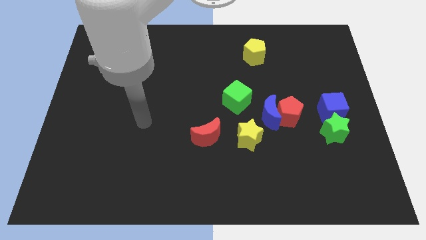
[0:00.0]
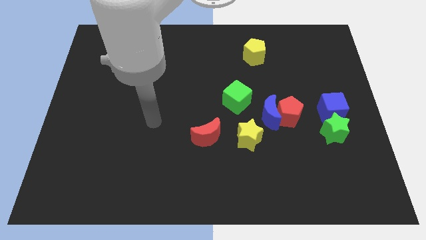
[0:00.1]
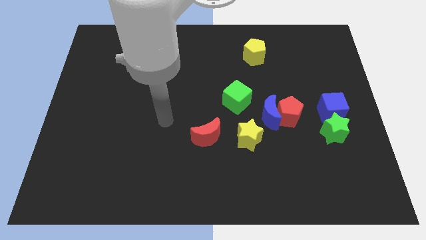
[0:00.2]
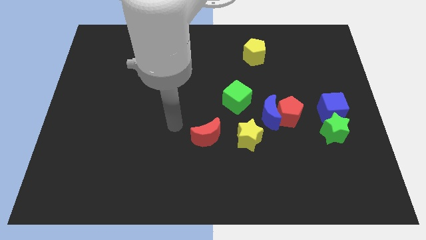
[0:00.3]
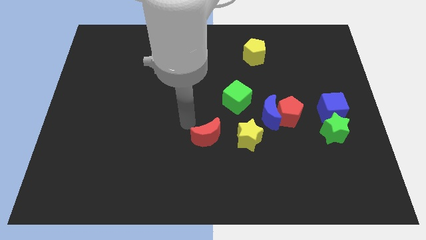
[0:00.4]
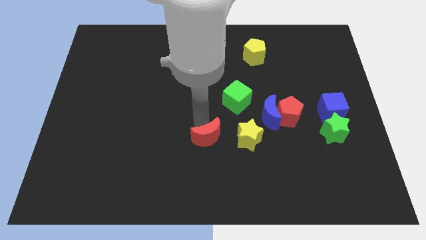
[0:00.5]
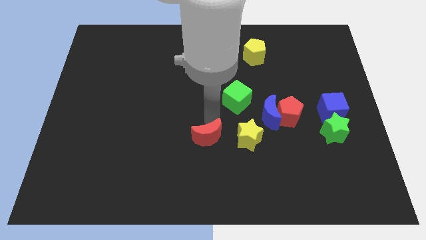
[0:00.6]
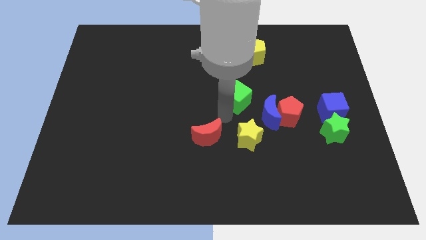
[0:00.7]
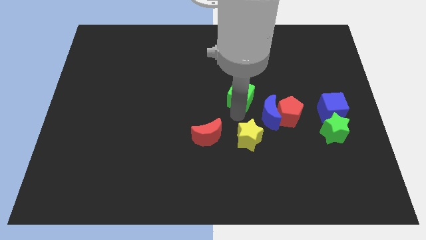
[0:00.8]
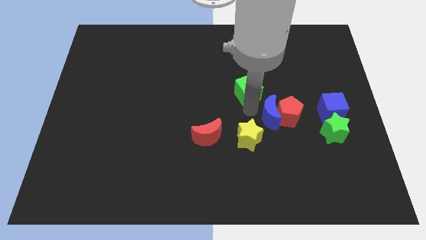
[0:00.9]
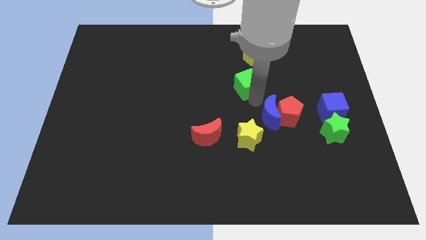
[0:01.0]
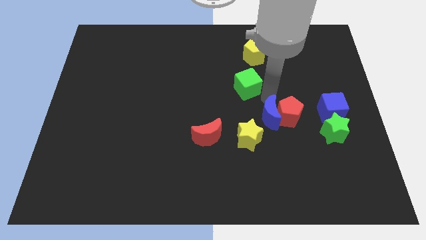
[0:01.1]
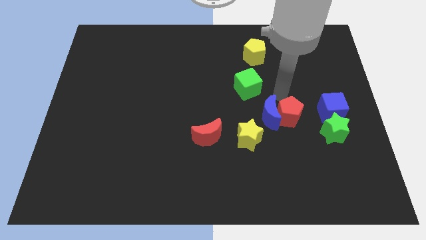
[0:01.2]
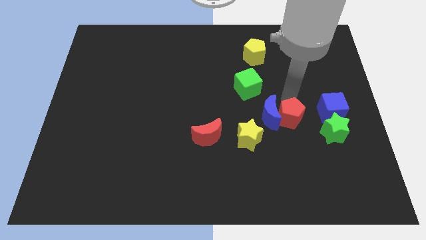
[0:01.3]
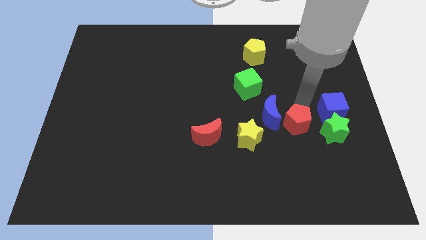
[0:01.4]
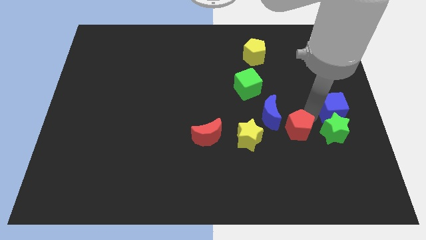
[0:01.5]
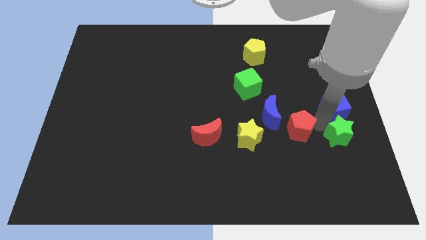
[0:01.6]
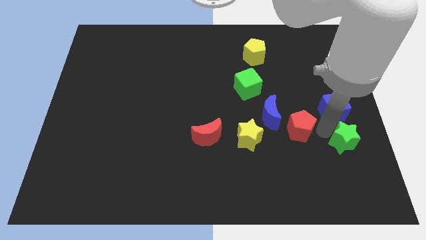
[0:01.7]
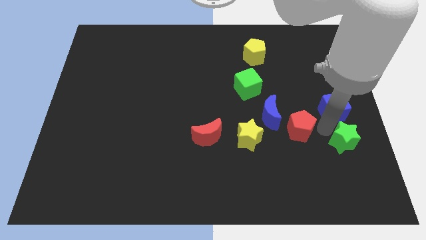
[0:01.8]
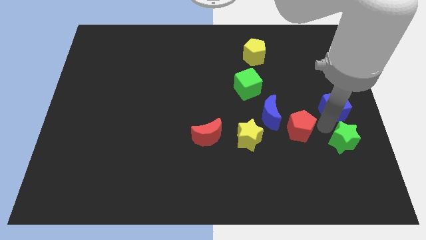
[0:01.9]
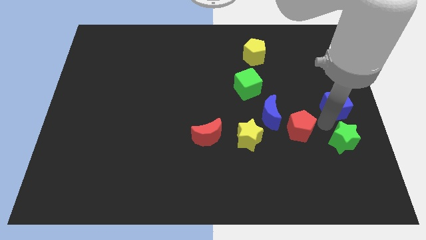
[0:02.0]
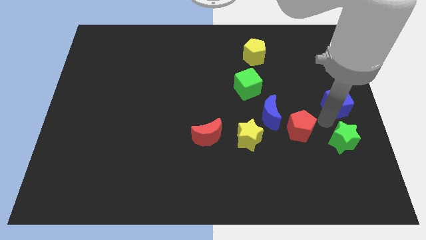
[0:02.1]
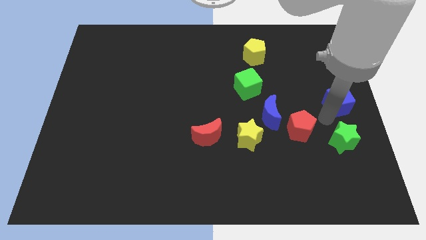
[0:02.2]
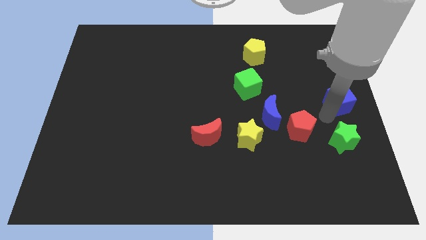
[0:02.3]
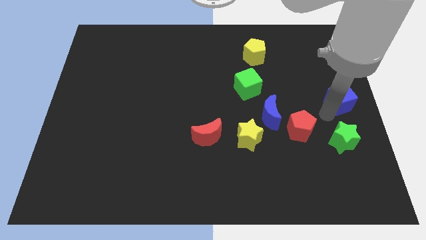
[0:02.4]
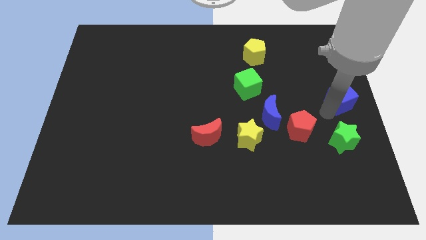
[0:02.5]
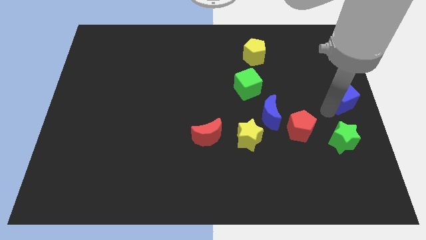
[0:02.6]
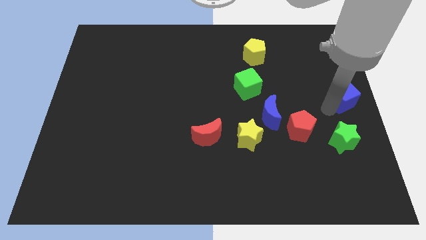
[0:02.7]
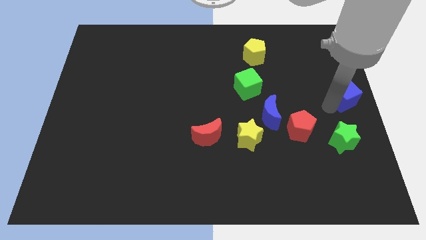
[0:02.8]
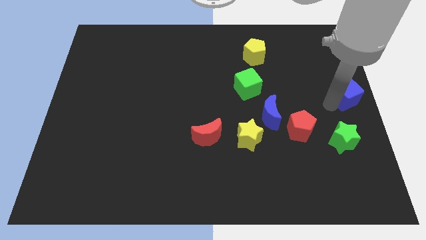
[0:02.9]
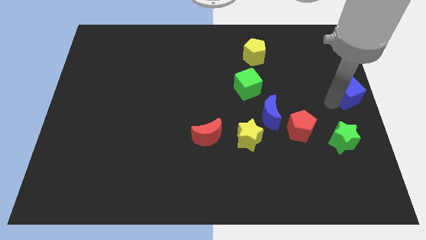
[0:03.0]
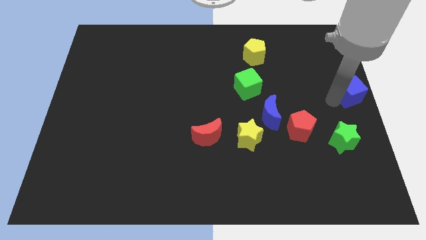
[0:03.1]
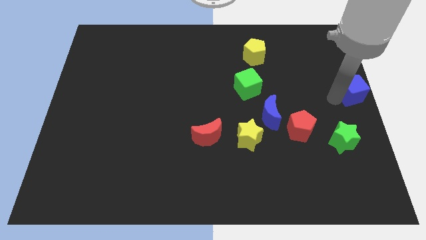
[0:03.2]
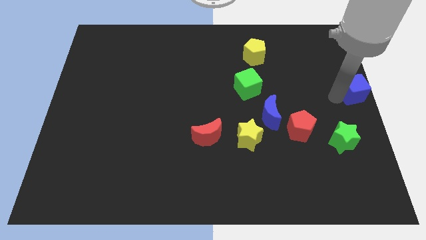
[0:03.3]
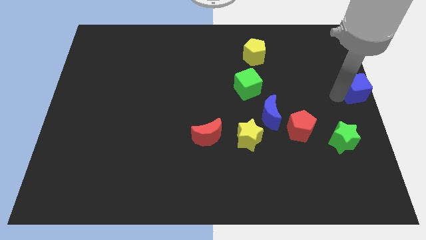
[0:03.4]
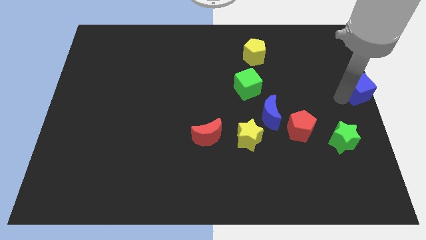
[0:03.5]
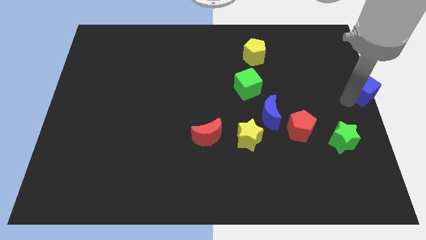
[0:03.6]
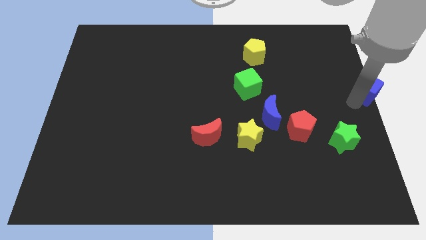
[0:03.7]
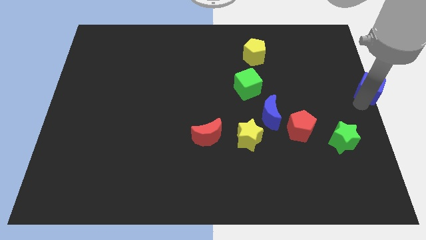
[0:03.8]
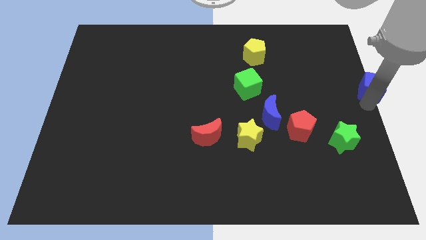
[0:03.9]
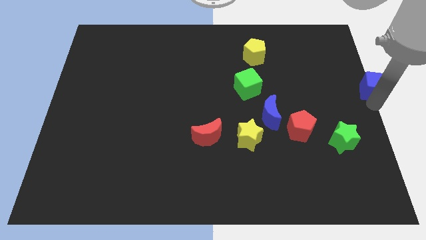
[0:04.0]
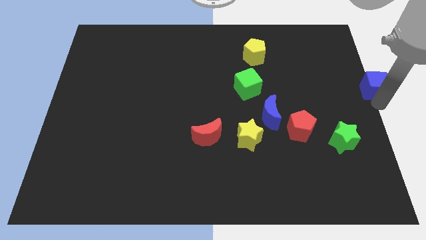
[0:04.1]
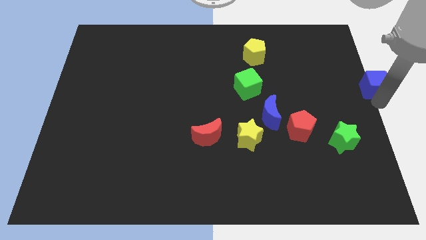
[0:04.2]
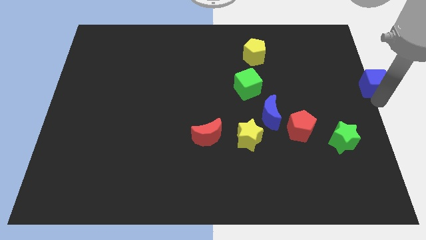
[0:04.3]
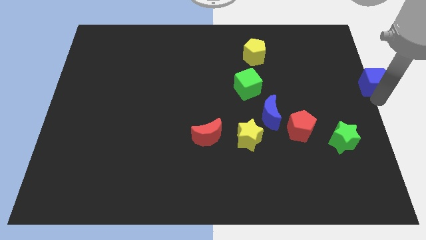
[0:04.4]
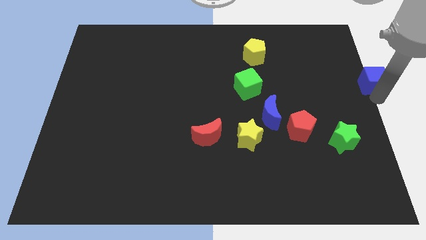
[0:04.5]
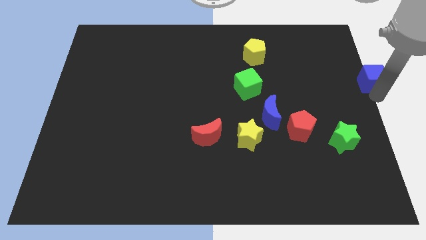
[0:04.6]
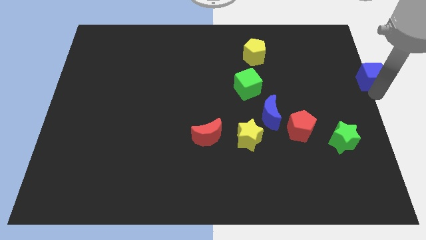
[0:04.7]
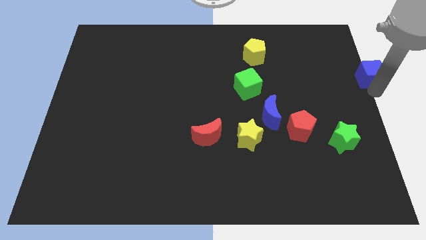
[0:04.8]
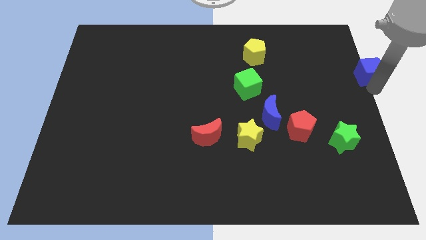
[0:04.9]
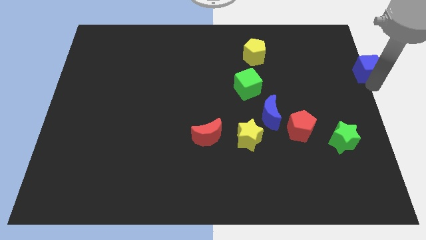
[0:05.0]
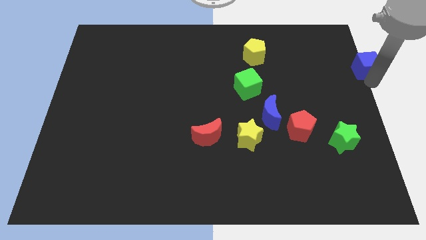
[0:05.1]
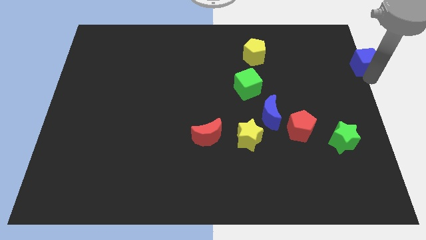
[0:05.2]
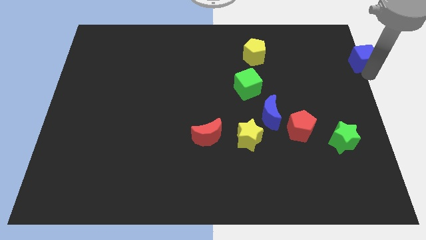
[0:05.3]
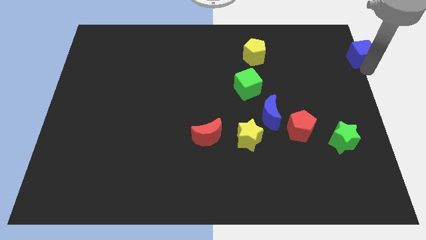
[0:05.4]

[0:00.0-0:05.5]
put the blue cube to the top right corner
